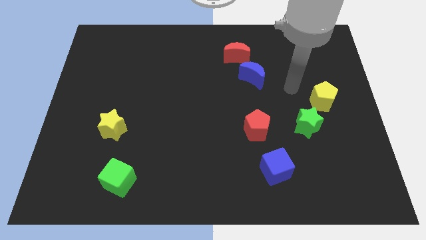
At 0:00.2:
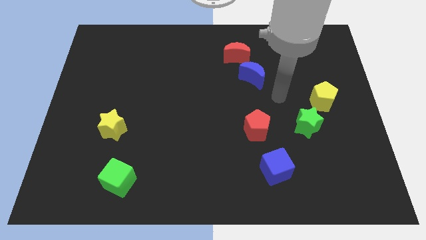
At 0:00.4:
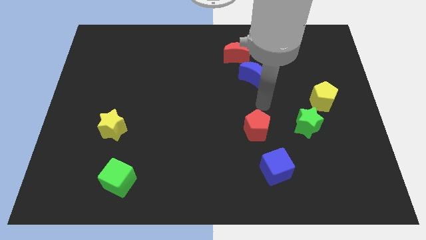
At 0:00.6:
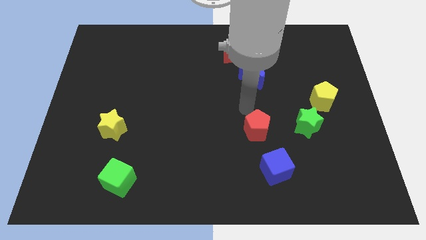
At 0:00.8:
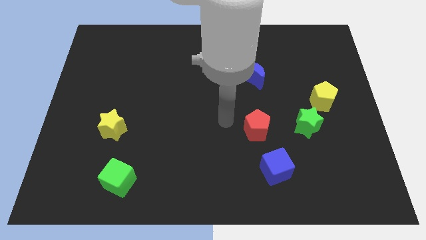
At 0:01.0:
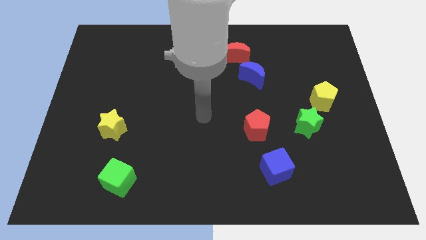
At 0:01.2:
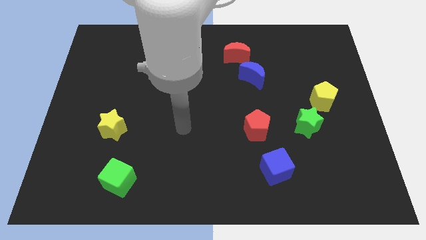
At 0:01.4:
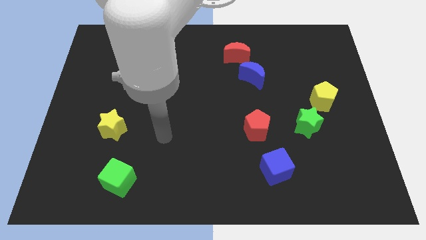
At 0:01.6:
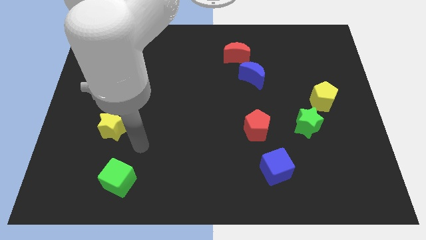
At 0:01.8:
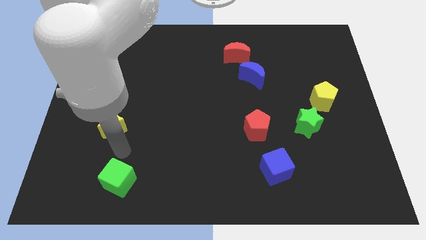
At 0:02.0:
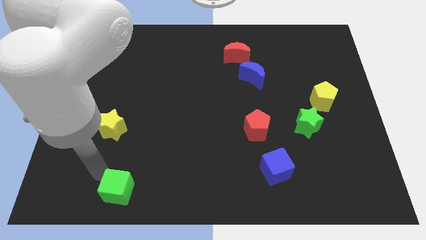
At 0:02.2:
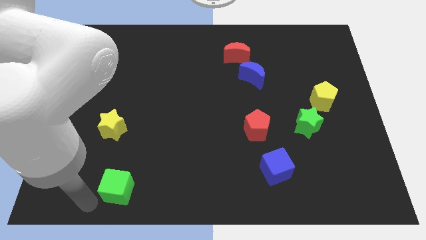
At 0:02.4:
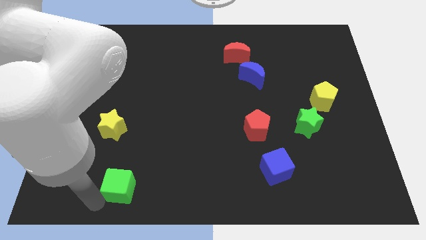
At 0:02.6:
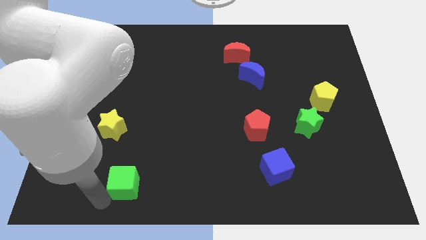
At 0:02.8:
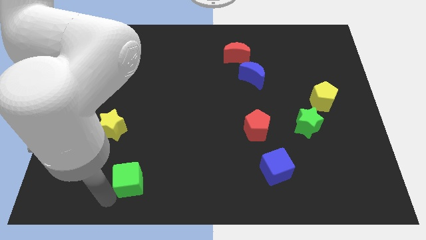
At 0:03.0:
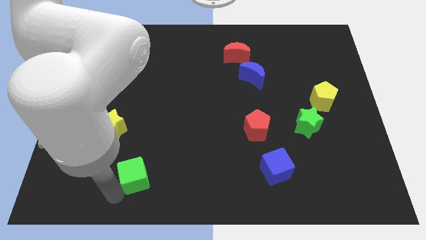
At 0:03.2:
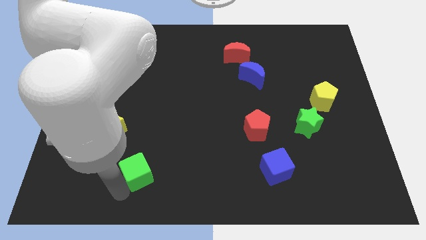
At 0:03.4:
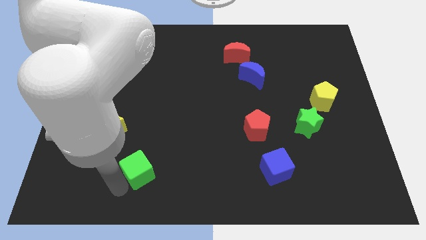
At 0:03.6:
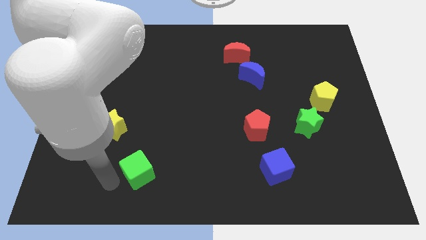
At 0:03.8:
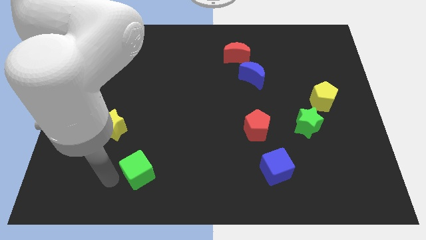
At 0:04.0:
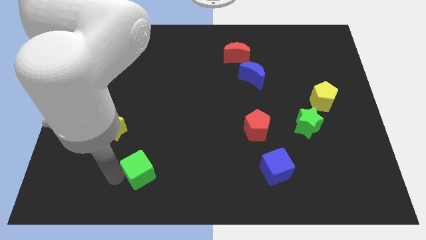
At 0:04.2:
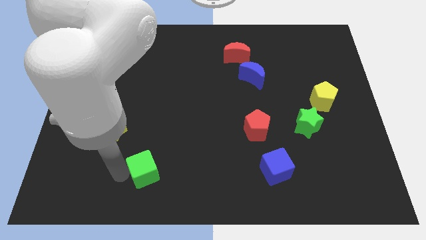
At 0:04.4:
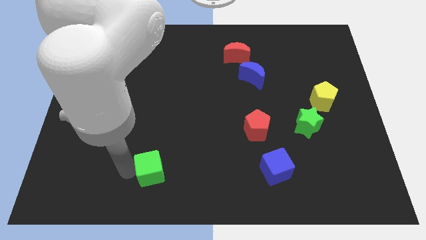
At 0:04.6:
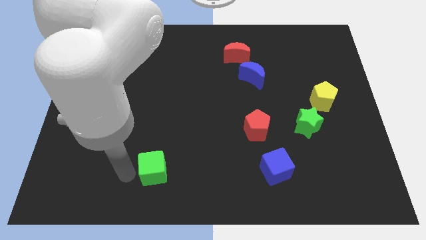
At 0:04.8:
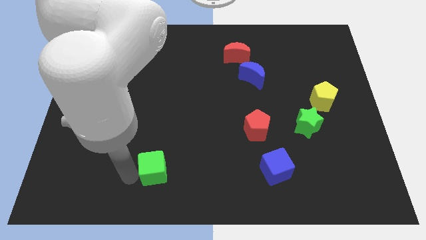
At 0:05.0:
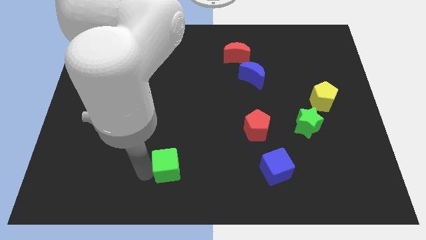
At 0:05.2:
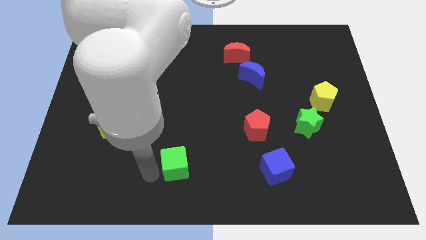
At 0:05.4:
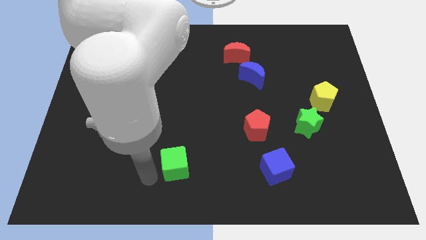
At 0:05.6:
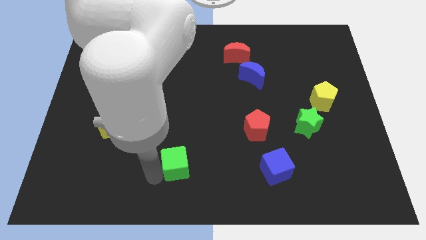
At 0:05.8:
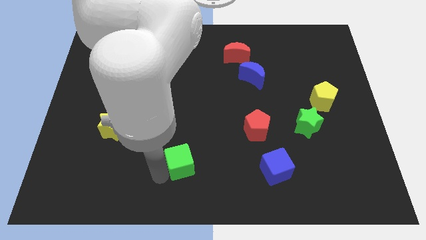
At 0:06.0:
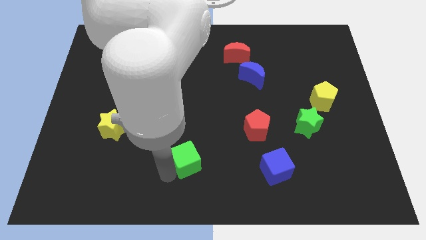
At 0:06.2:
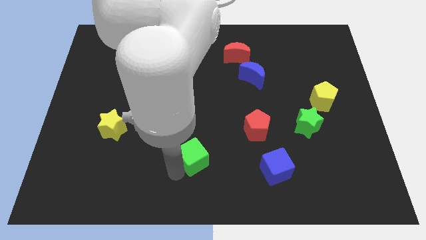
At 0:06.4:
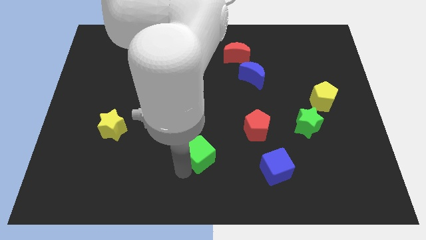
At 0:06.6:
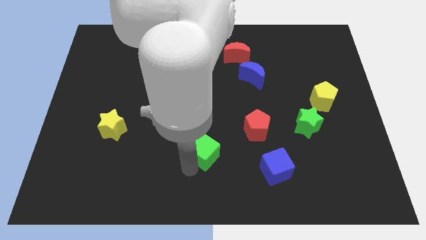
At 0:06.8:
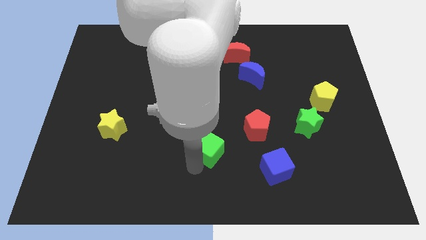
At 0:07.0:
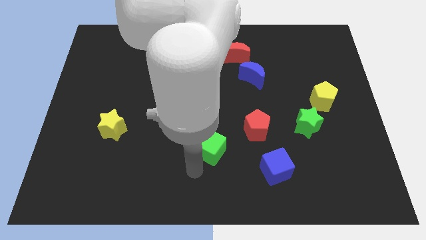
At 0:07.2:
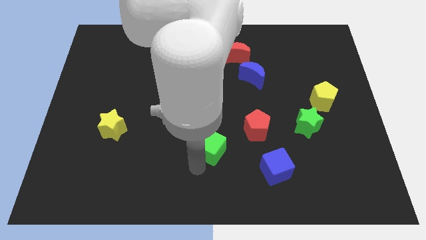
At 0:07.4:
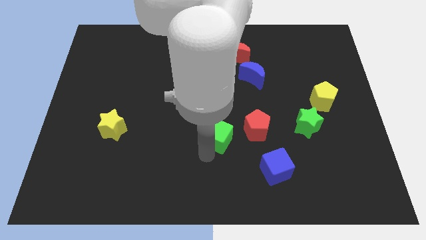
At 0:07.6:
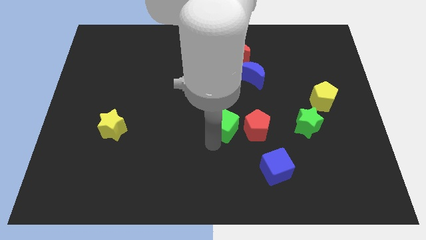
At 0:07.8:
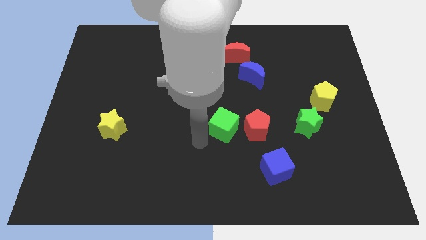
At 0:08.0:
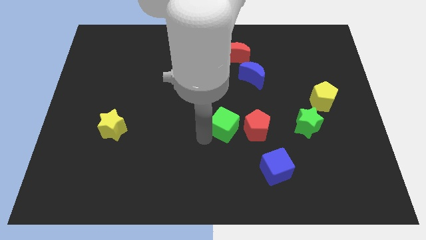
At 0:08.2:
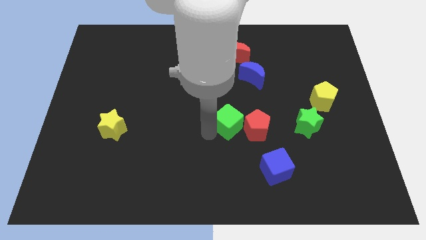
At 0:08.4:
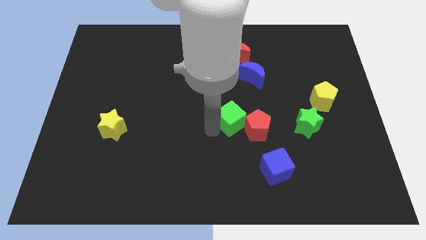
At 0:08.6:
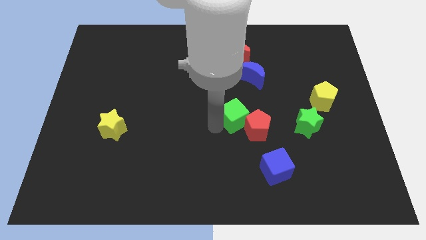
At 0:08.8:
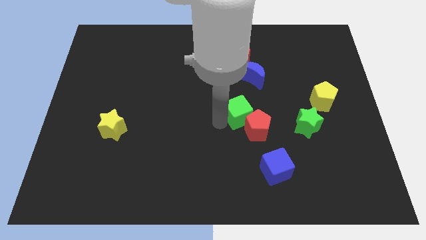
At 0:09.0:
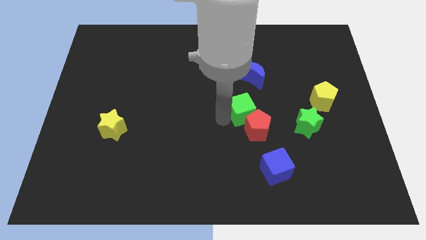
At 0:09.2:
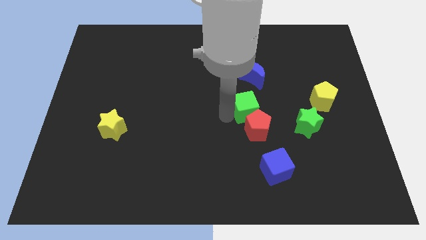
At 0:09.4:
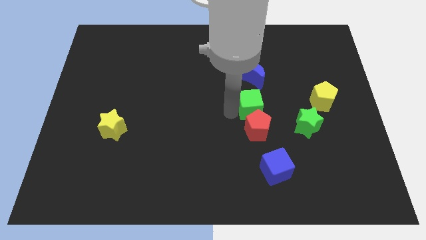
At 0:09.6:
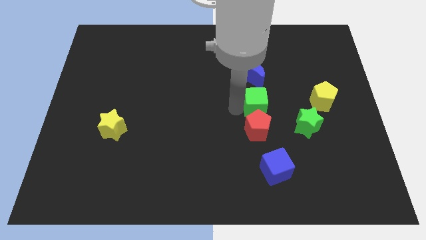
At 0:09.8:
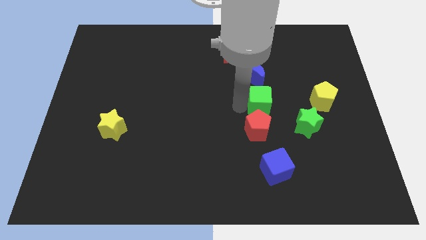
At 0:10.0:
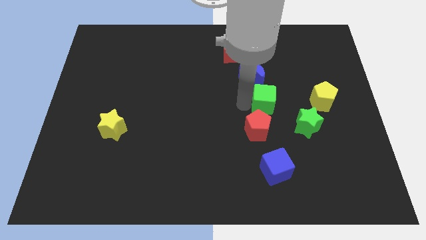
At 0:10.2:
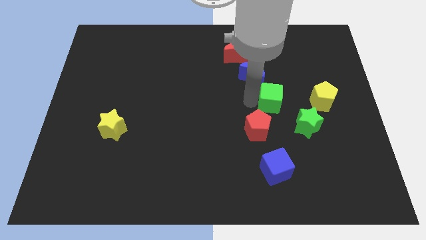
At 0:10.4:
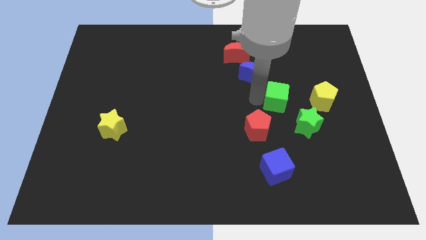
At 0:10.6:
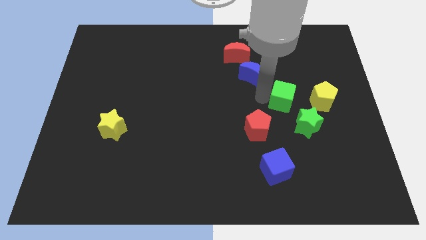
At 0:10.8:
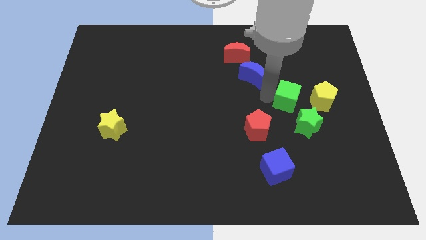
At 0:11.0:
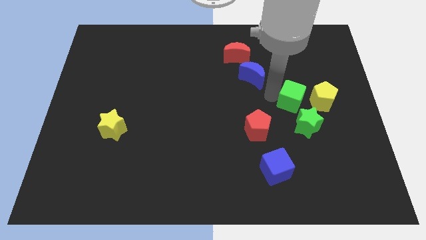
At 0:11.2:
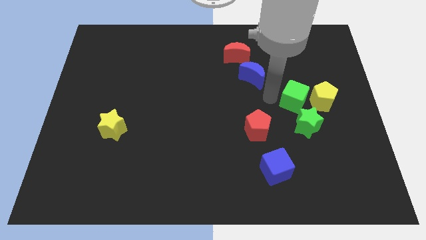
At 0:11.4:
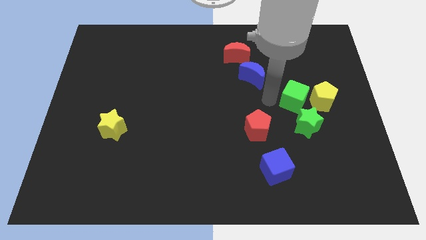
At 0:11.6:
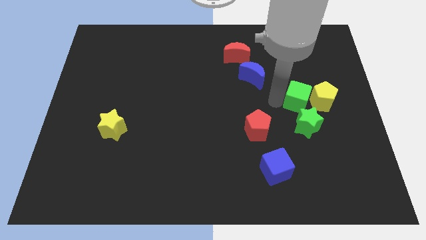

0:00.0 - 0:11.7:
push the green cube close to the yellow pentagon
